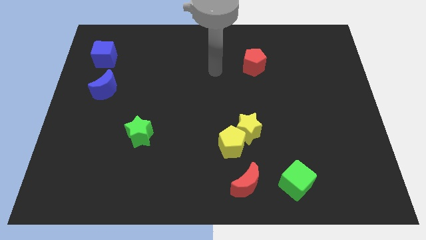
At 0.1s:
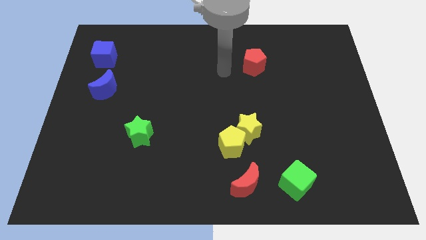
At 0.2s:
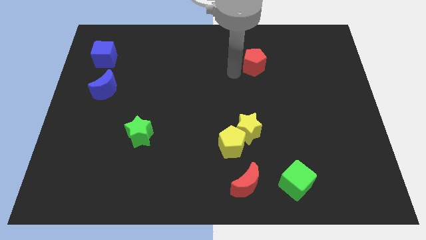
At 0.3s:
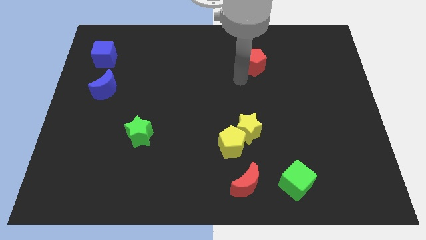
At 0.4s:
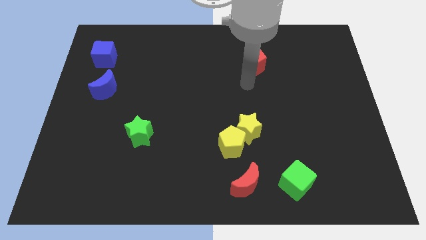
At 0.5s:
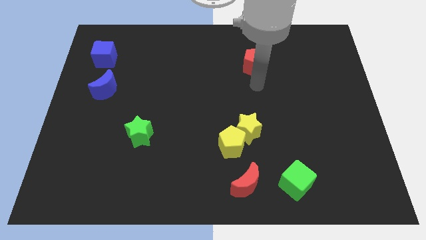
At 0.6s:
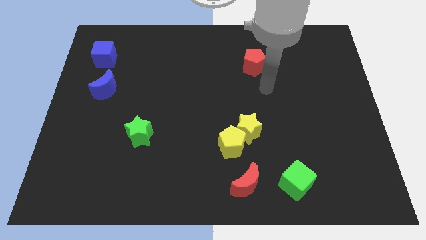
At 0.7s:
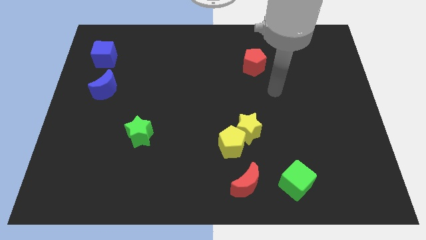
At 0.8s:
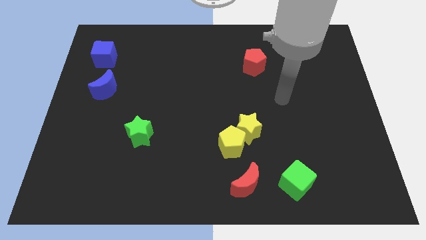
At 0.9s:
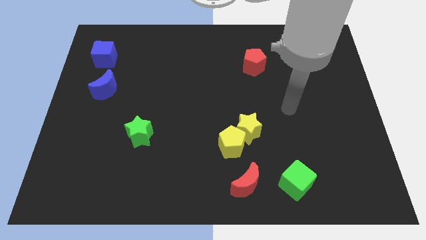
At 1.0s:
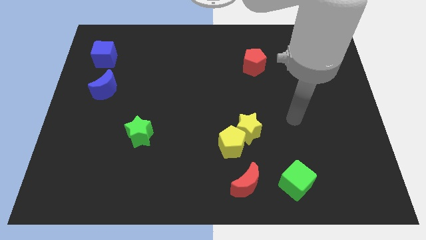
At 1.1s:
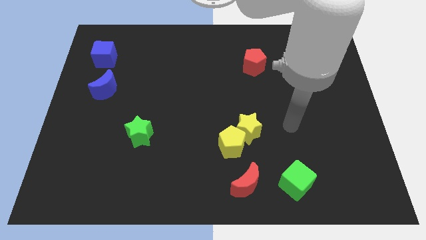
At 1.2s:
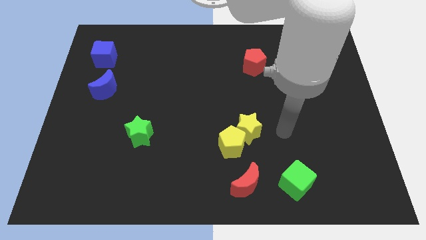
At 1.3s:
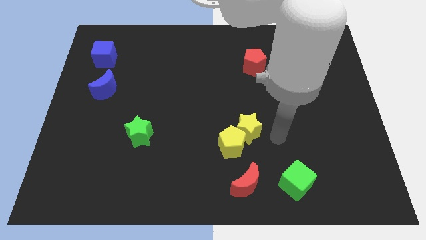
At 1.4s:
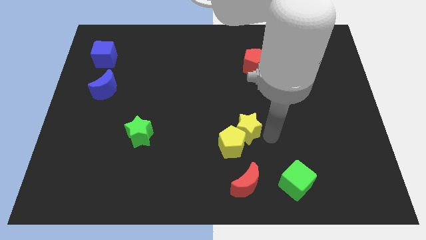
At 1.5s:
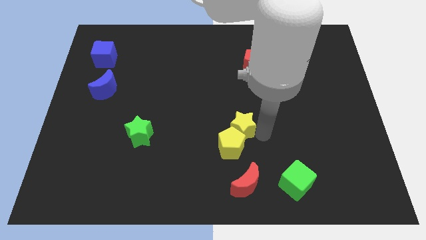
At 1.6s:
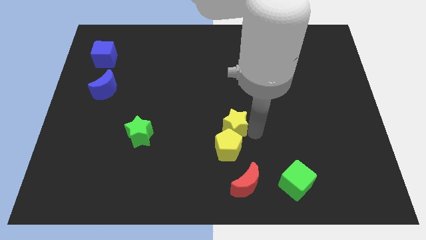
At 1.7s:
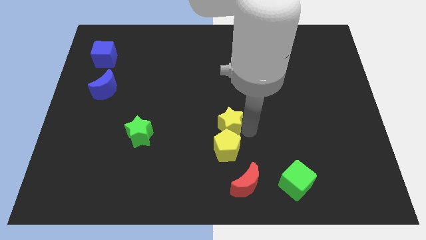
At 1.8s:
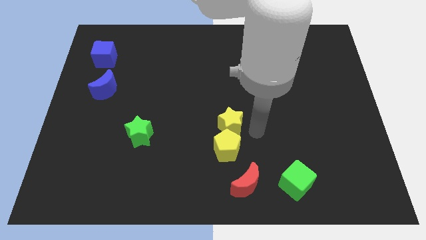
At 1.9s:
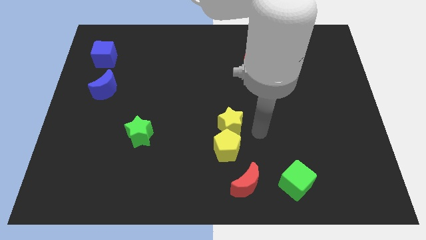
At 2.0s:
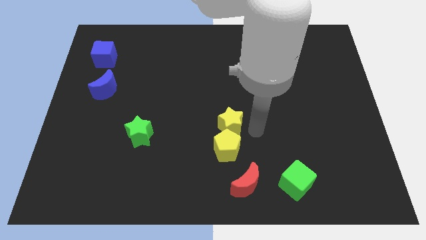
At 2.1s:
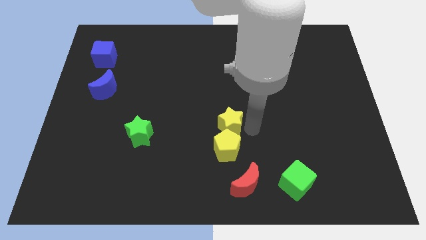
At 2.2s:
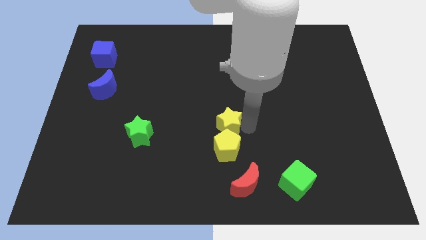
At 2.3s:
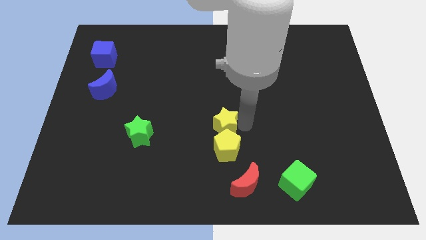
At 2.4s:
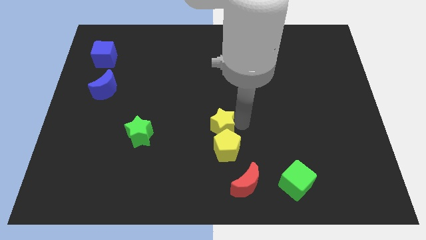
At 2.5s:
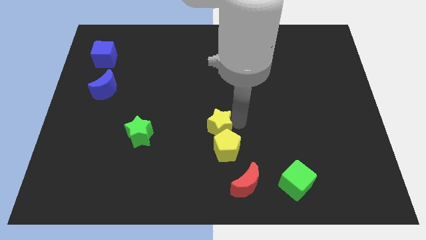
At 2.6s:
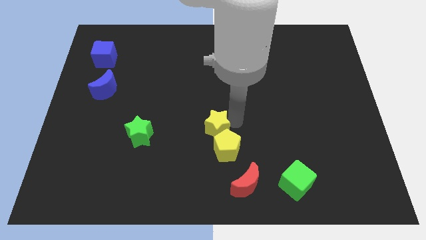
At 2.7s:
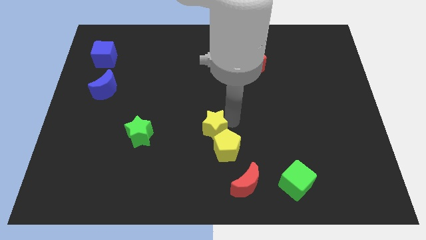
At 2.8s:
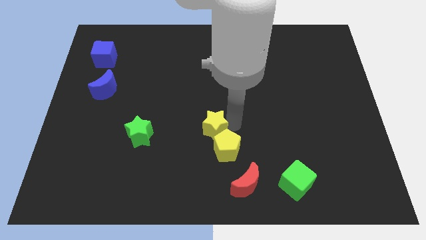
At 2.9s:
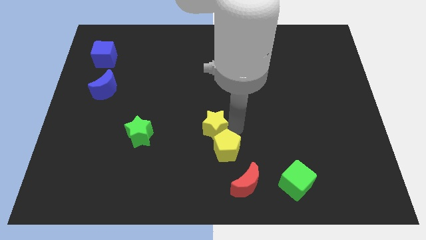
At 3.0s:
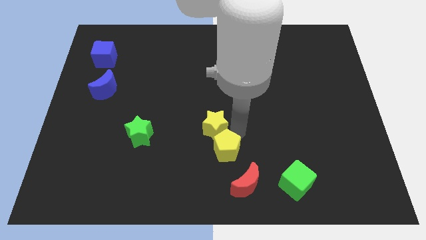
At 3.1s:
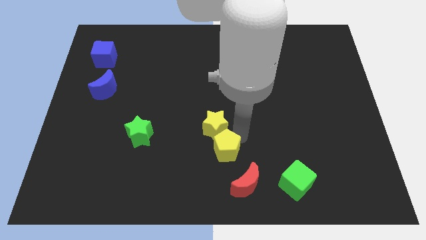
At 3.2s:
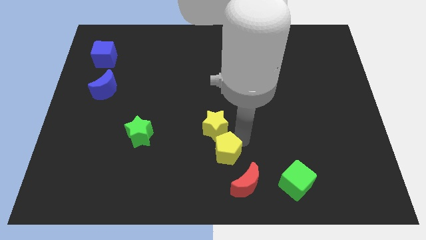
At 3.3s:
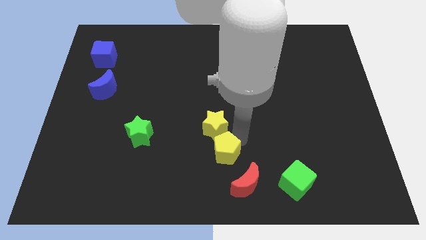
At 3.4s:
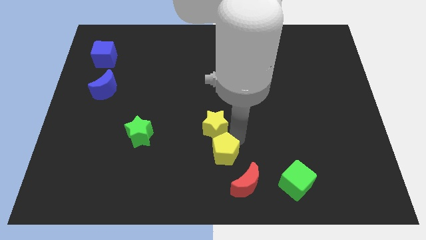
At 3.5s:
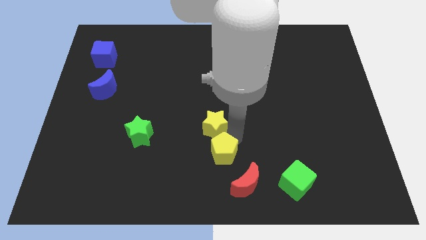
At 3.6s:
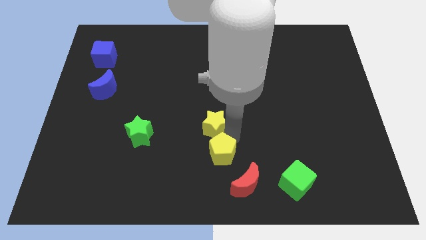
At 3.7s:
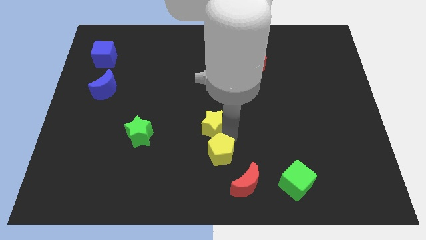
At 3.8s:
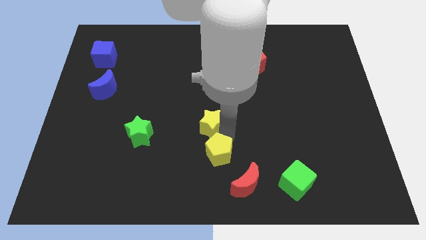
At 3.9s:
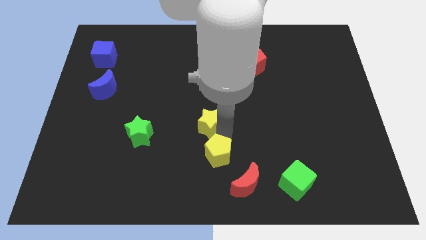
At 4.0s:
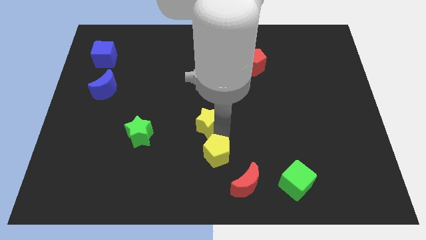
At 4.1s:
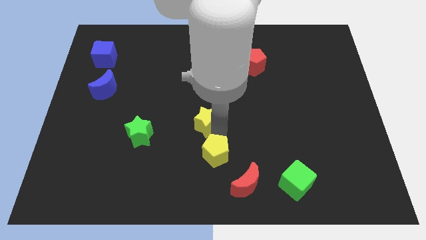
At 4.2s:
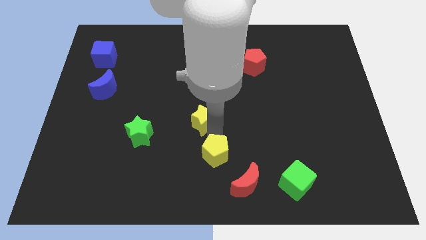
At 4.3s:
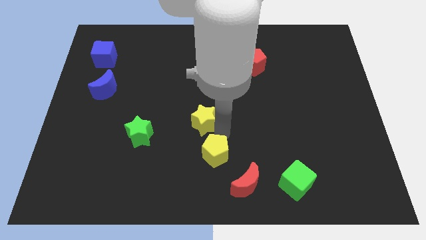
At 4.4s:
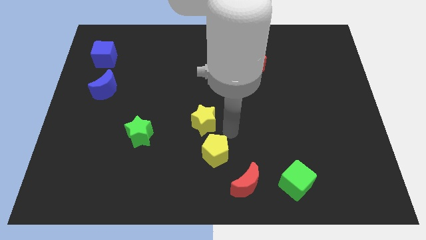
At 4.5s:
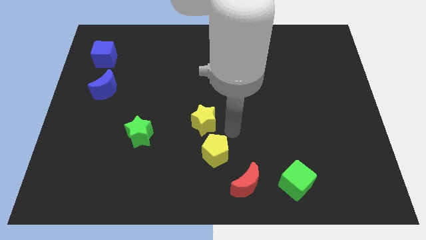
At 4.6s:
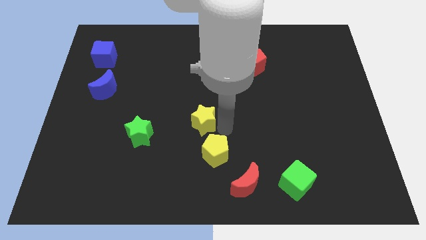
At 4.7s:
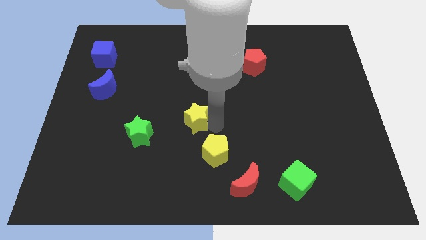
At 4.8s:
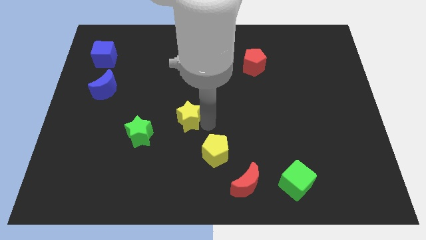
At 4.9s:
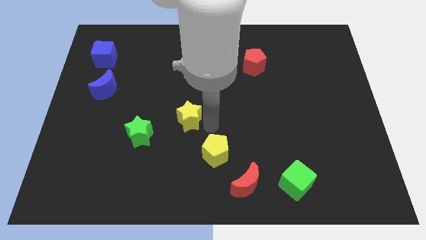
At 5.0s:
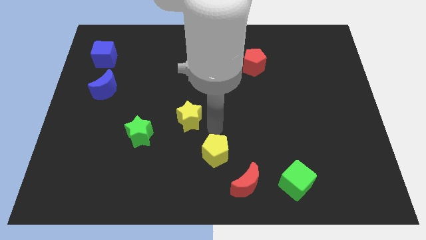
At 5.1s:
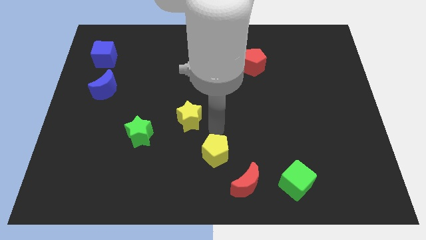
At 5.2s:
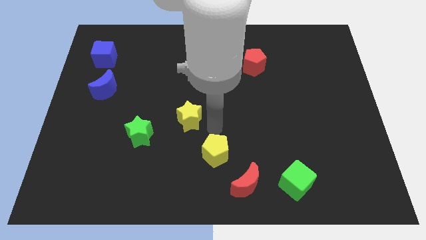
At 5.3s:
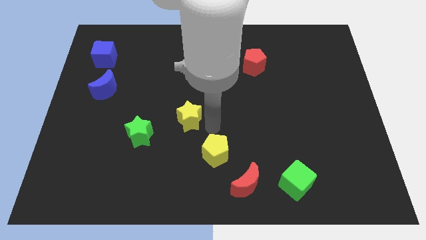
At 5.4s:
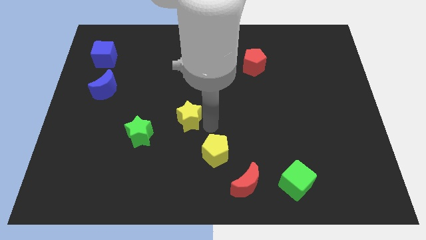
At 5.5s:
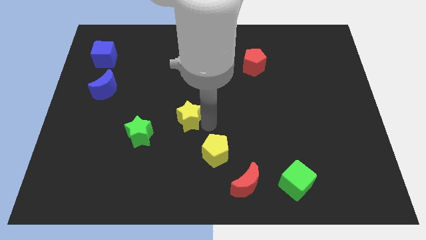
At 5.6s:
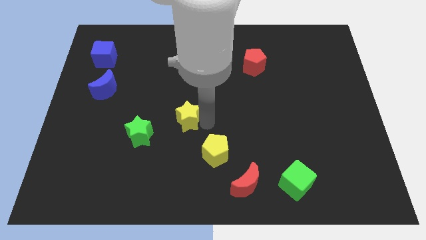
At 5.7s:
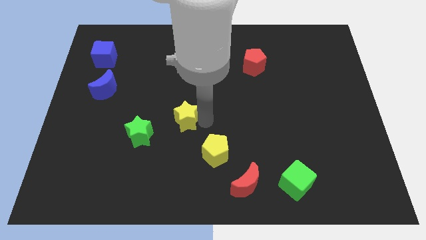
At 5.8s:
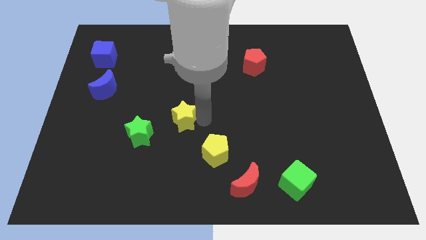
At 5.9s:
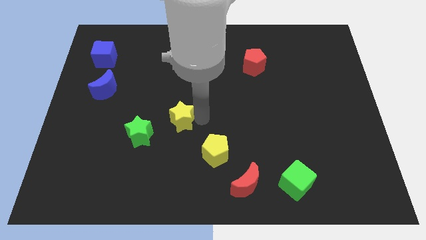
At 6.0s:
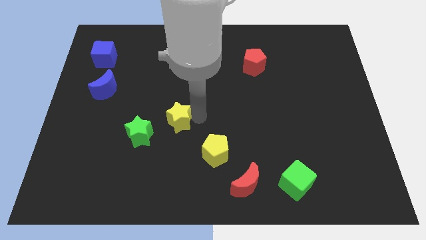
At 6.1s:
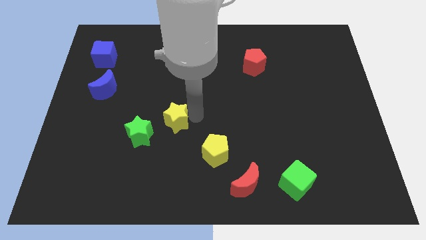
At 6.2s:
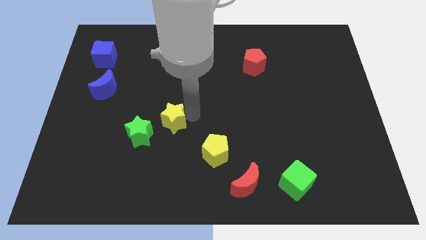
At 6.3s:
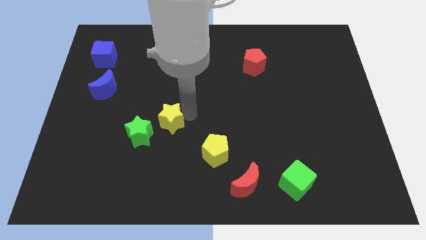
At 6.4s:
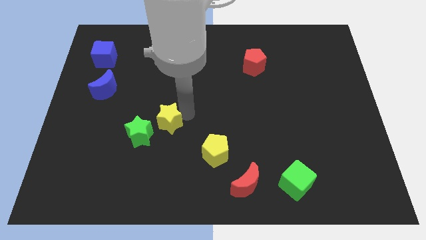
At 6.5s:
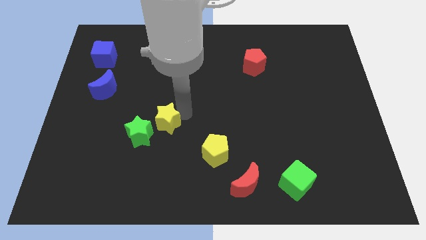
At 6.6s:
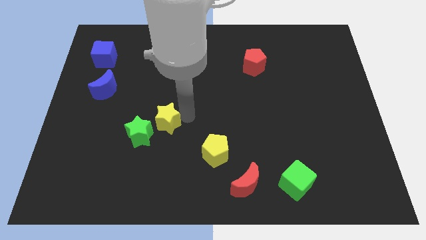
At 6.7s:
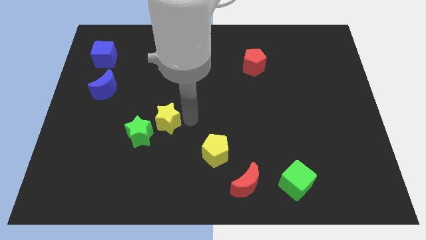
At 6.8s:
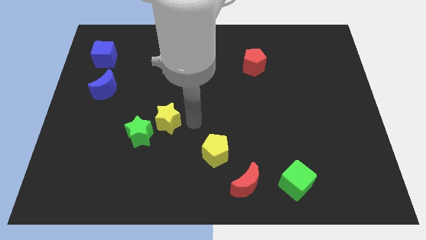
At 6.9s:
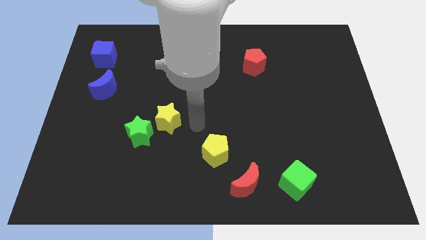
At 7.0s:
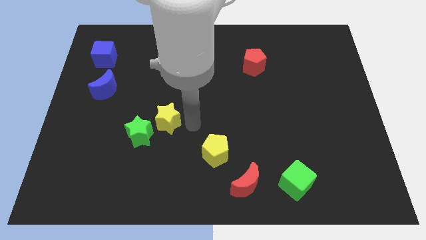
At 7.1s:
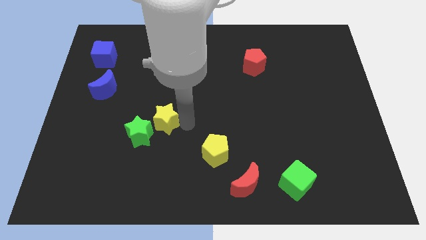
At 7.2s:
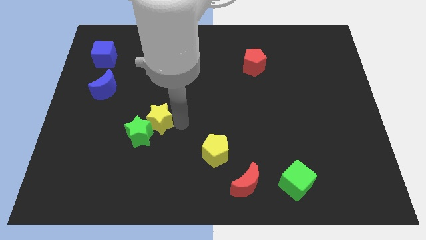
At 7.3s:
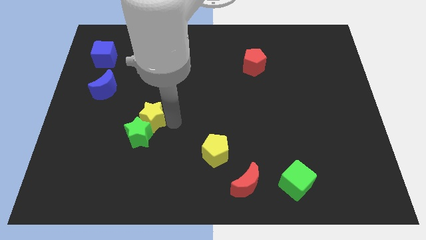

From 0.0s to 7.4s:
move the yellow star to the left

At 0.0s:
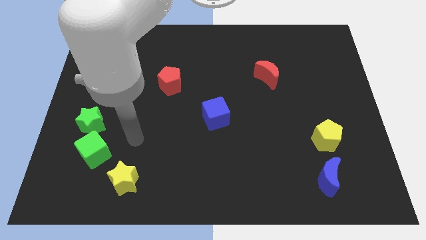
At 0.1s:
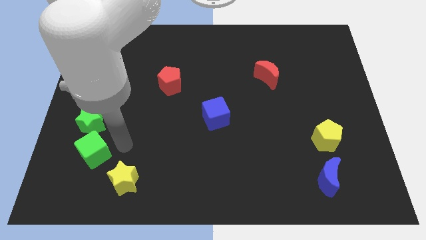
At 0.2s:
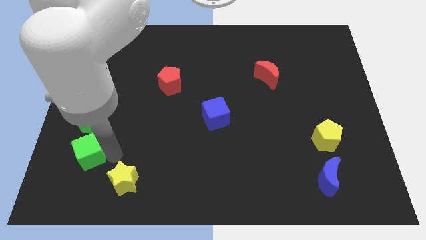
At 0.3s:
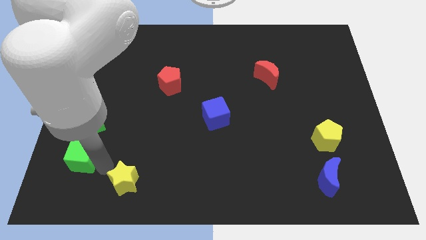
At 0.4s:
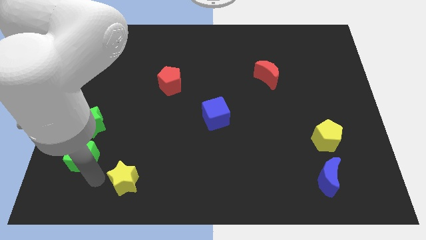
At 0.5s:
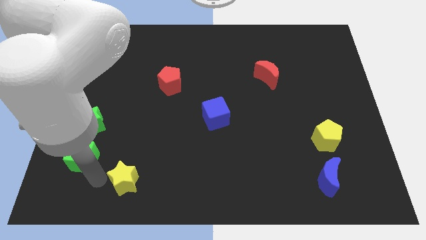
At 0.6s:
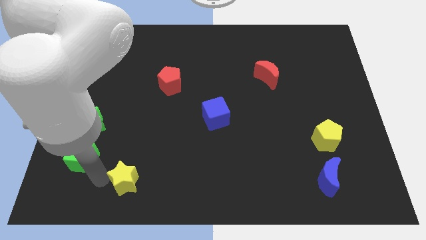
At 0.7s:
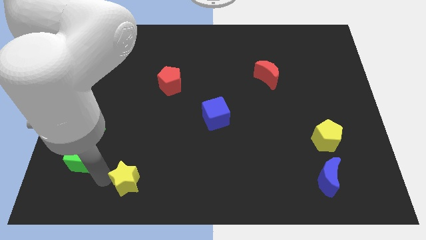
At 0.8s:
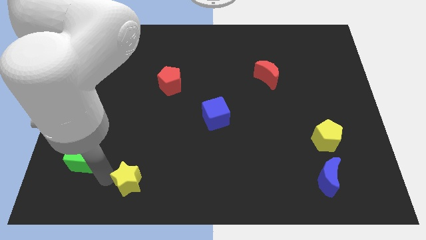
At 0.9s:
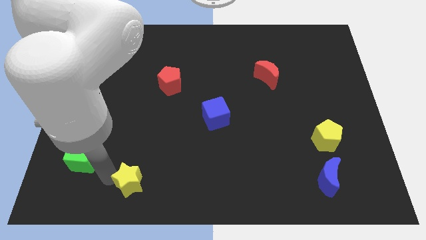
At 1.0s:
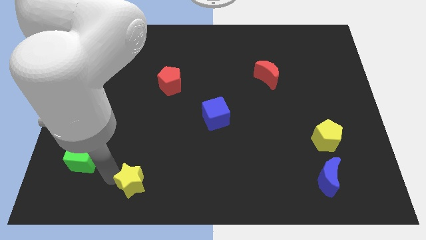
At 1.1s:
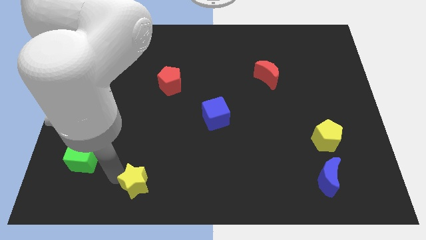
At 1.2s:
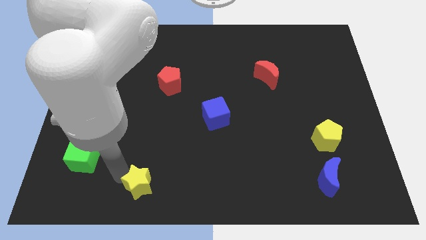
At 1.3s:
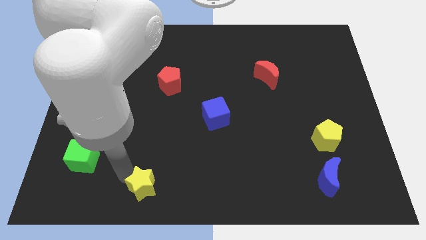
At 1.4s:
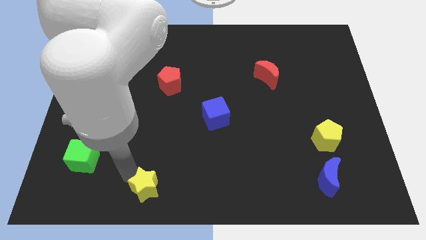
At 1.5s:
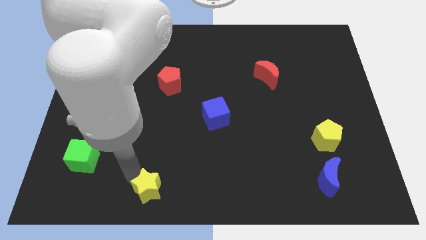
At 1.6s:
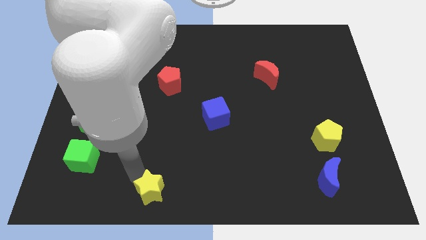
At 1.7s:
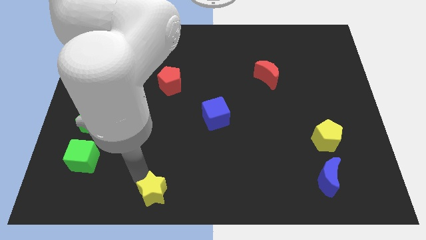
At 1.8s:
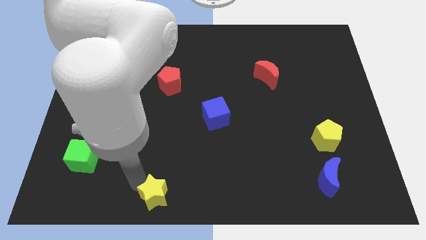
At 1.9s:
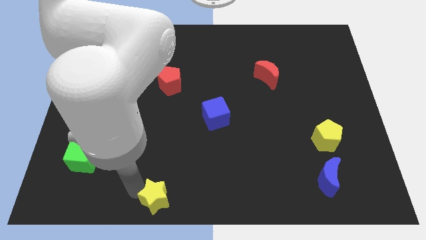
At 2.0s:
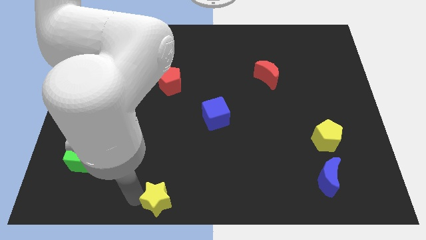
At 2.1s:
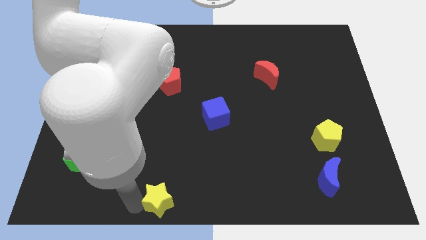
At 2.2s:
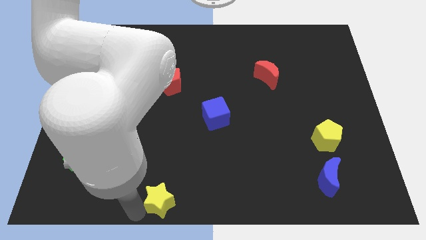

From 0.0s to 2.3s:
slide the yellow star a little bit right
